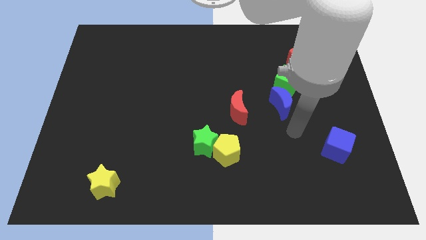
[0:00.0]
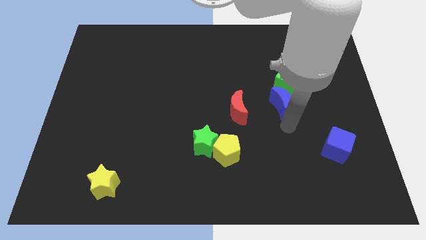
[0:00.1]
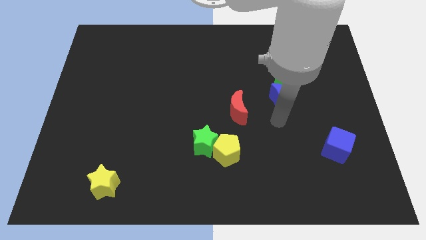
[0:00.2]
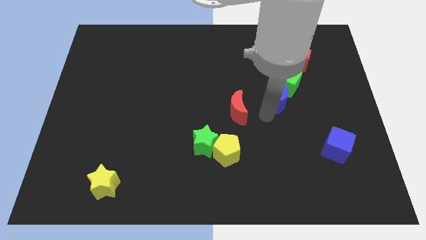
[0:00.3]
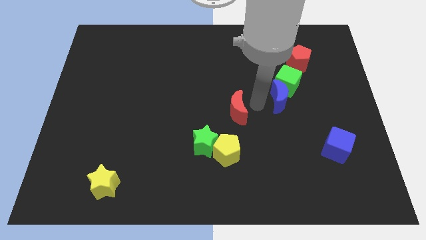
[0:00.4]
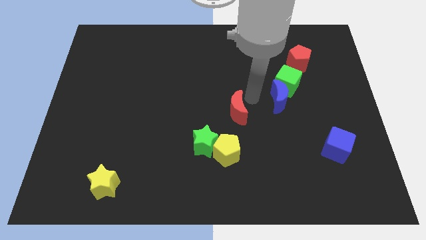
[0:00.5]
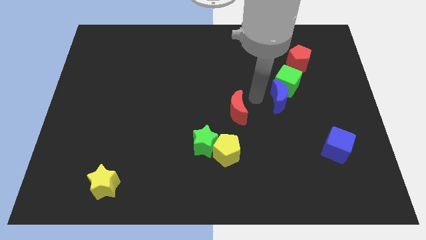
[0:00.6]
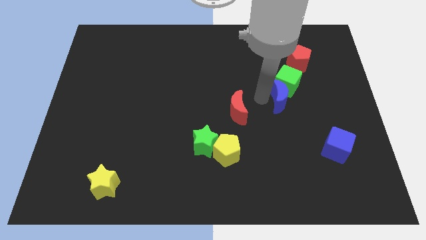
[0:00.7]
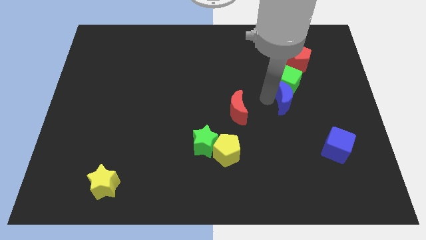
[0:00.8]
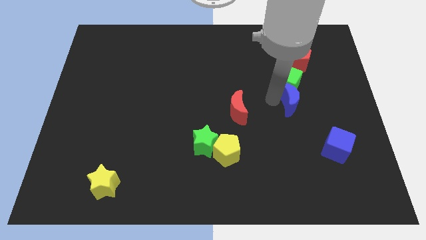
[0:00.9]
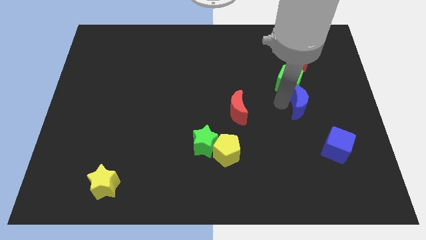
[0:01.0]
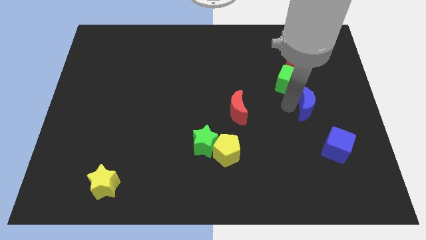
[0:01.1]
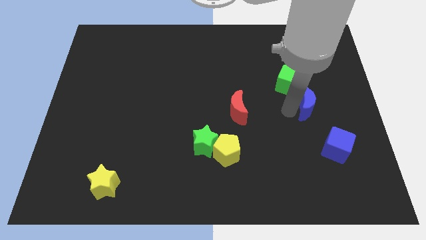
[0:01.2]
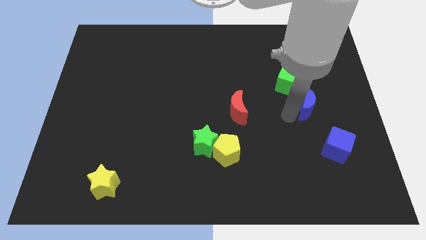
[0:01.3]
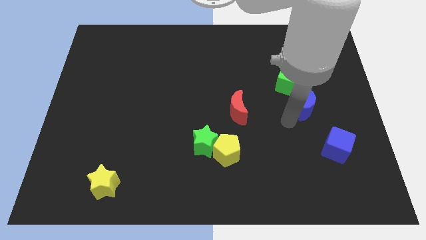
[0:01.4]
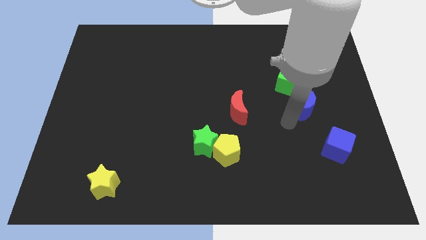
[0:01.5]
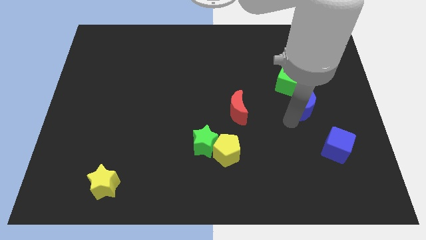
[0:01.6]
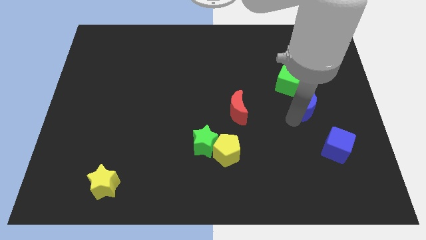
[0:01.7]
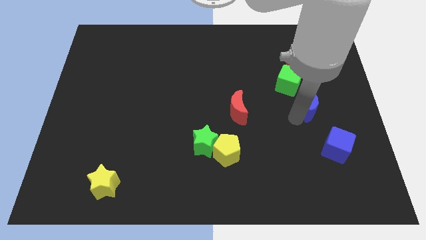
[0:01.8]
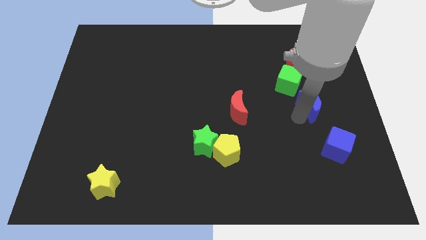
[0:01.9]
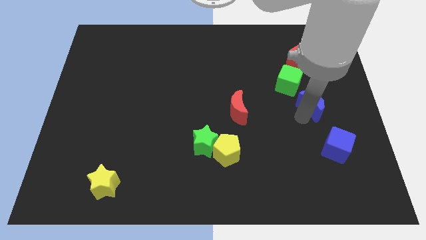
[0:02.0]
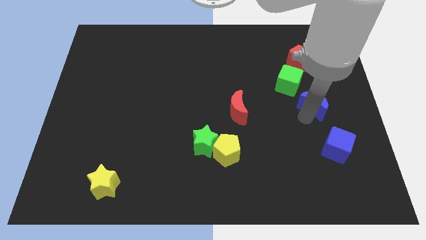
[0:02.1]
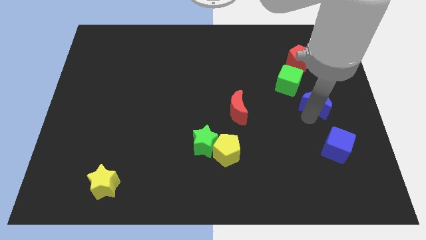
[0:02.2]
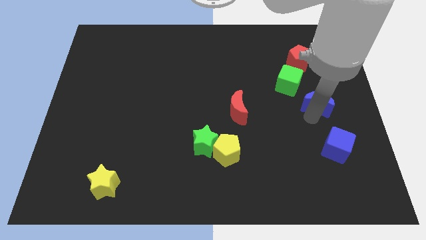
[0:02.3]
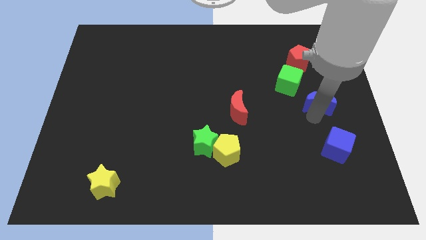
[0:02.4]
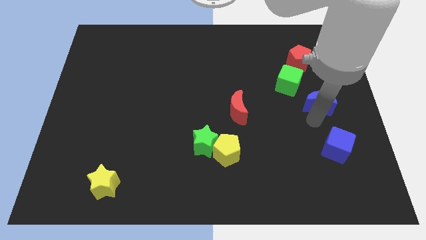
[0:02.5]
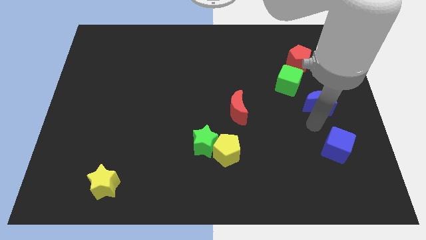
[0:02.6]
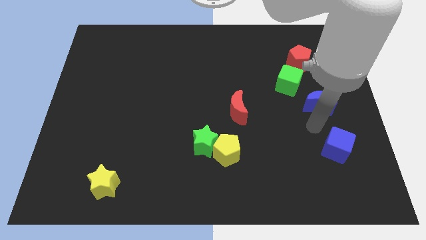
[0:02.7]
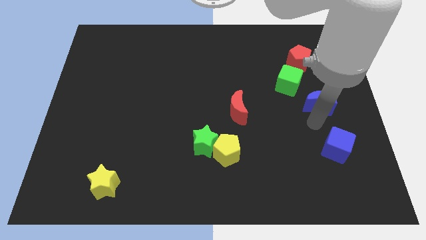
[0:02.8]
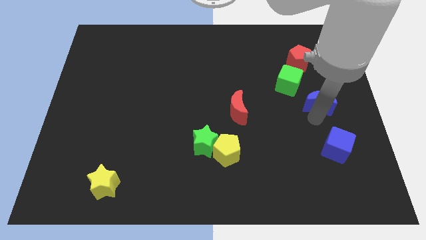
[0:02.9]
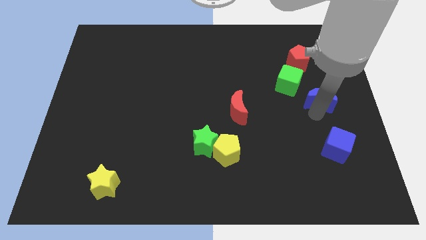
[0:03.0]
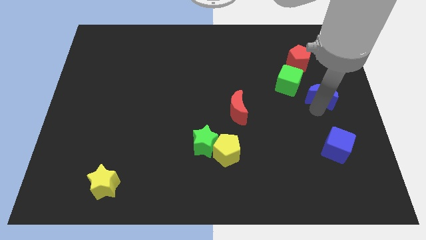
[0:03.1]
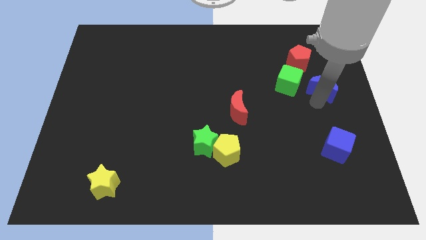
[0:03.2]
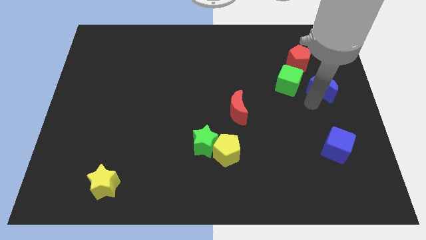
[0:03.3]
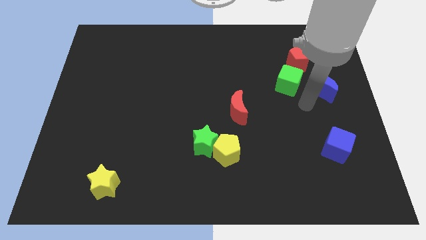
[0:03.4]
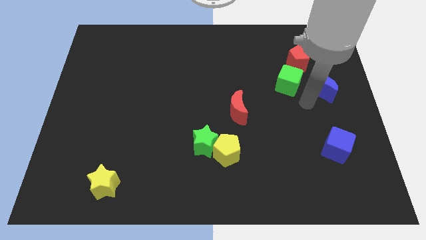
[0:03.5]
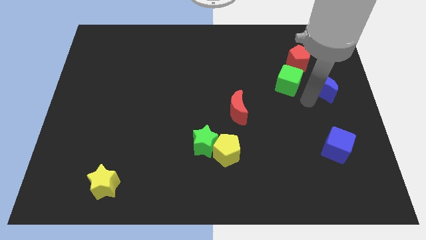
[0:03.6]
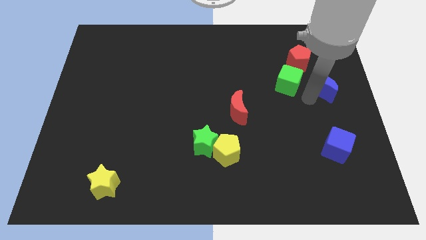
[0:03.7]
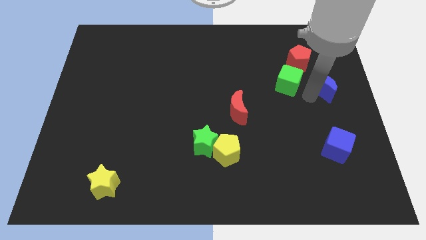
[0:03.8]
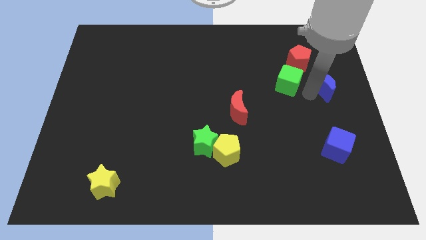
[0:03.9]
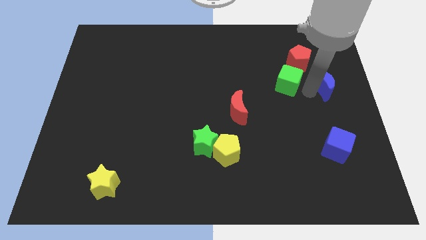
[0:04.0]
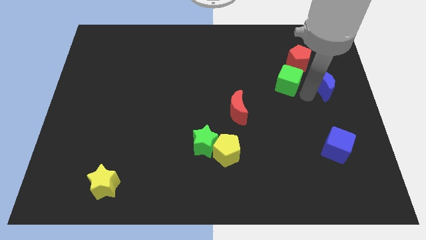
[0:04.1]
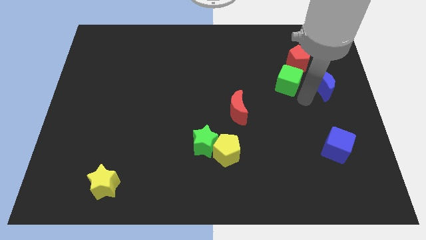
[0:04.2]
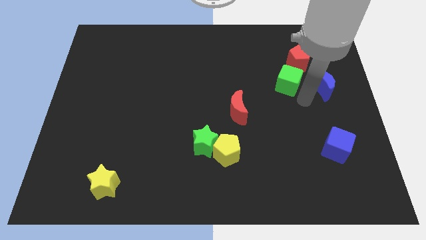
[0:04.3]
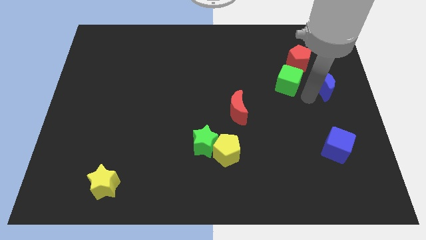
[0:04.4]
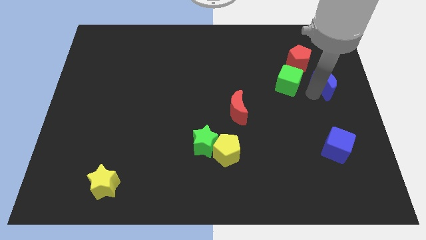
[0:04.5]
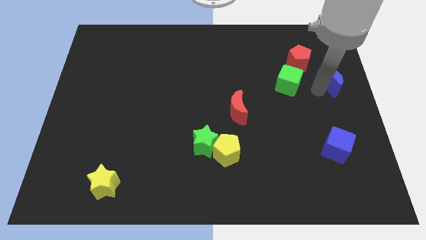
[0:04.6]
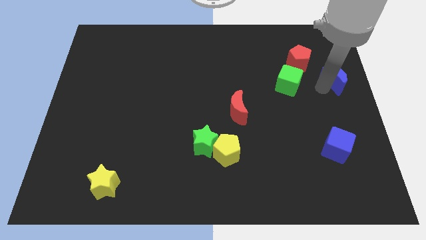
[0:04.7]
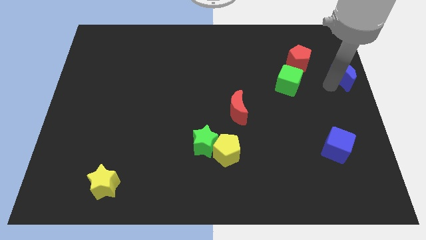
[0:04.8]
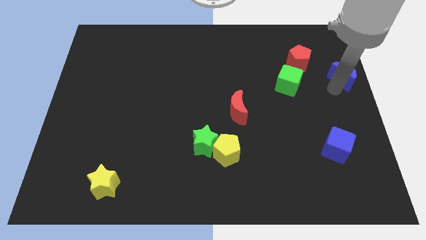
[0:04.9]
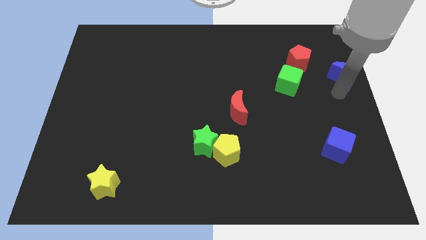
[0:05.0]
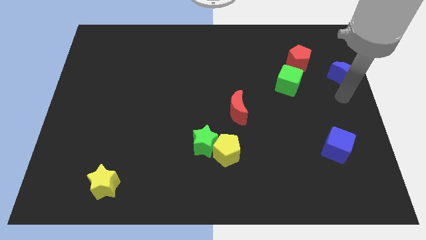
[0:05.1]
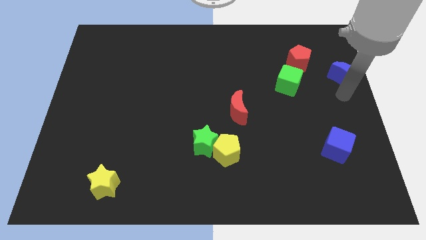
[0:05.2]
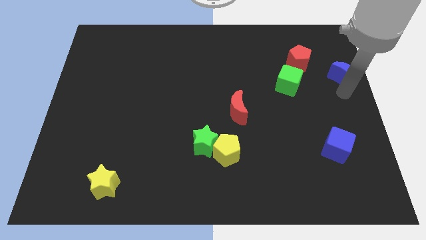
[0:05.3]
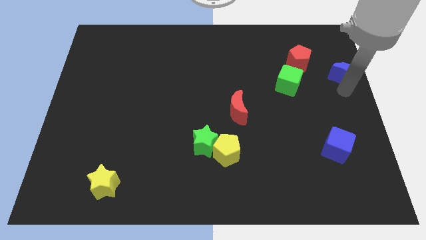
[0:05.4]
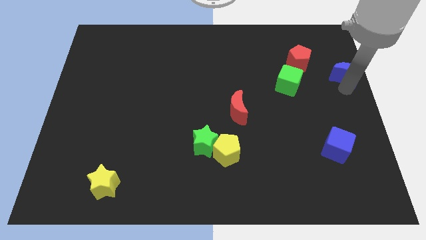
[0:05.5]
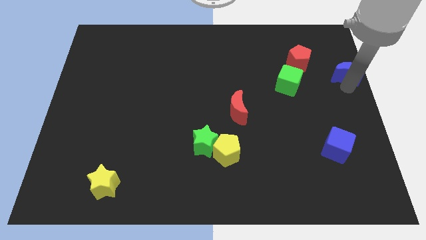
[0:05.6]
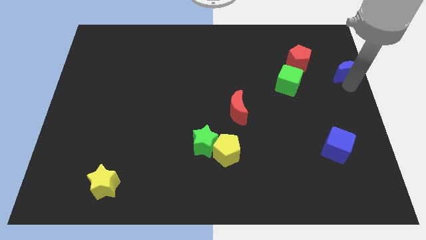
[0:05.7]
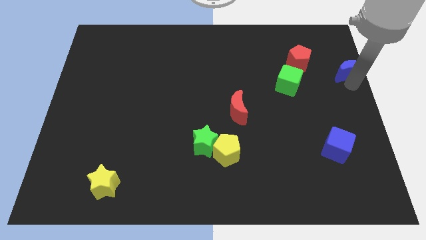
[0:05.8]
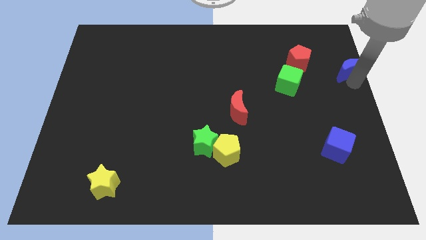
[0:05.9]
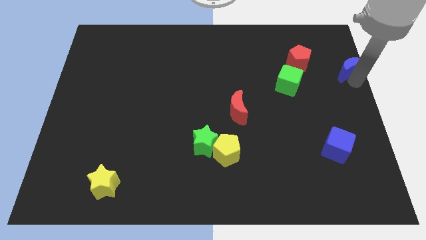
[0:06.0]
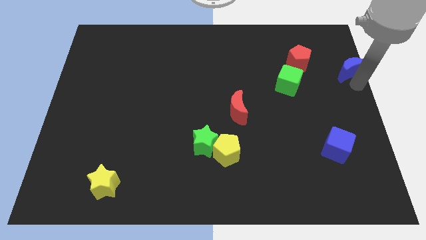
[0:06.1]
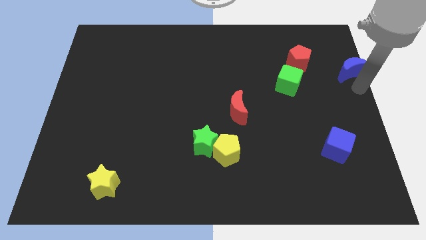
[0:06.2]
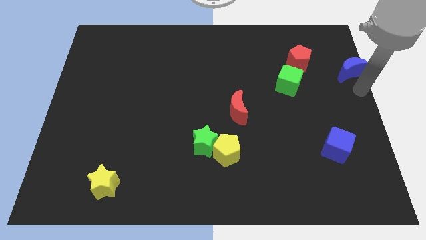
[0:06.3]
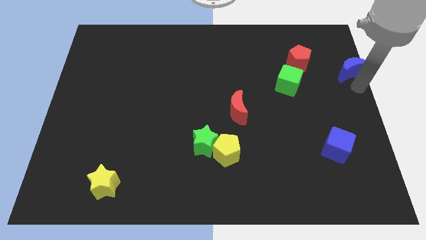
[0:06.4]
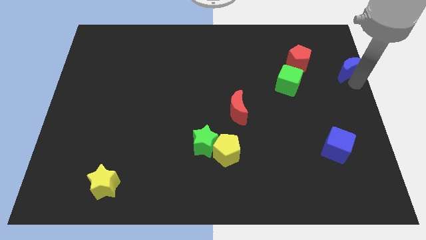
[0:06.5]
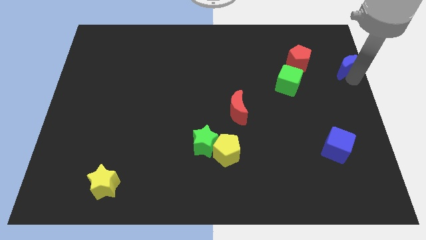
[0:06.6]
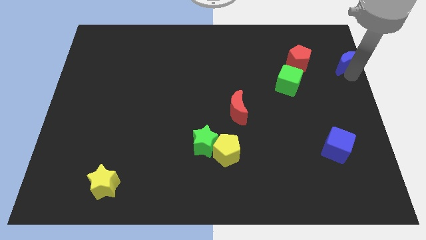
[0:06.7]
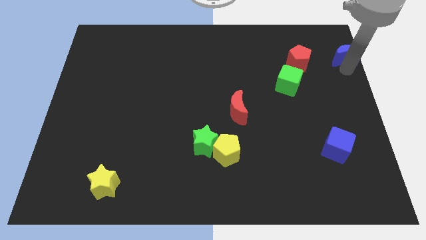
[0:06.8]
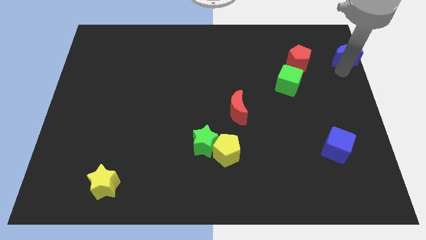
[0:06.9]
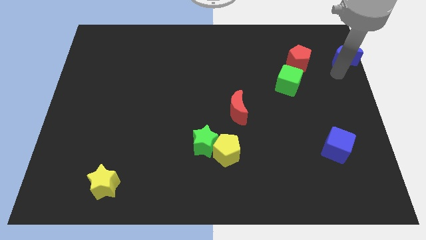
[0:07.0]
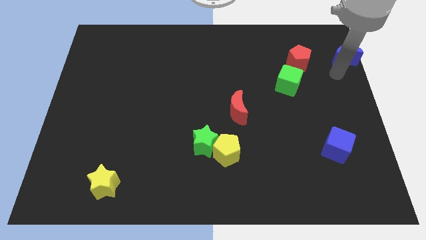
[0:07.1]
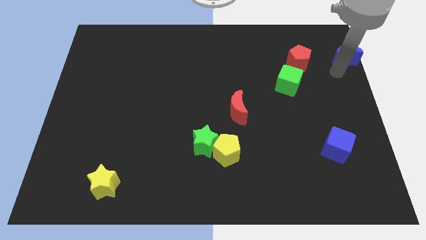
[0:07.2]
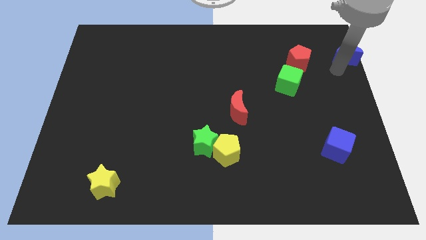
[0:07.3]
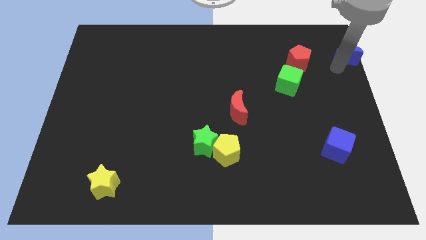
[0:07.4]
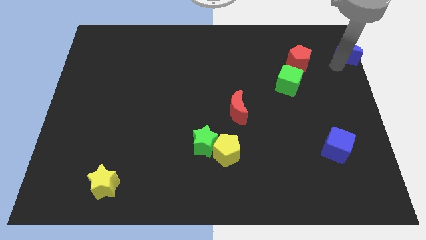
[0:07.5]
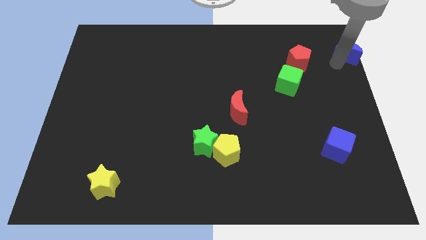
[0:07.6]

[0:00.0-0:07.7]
slide the blue moon to the top right
